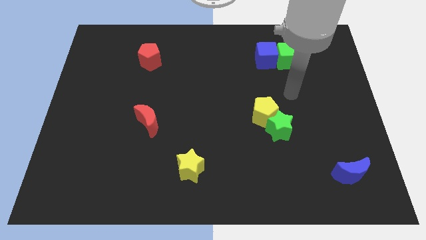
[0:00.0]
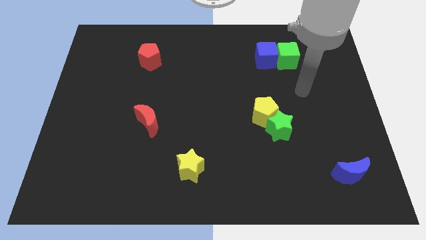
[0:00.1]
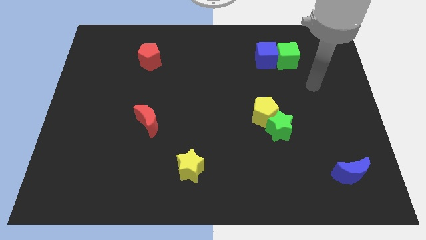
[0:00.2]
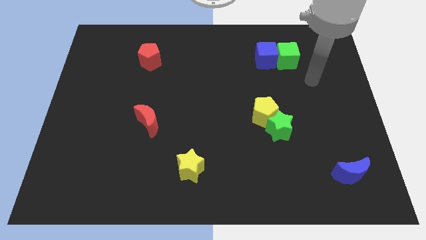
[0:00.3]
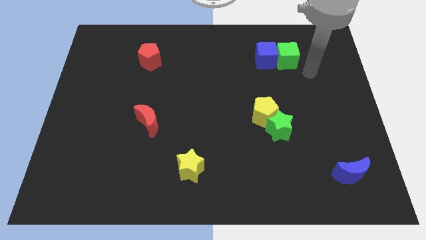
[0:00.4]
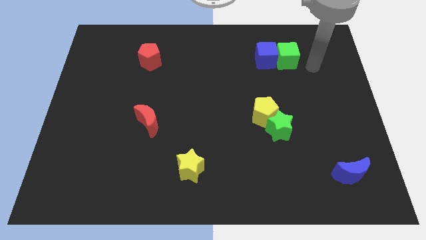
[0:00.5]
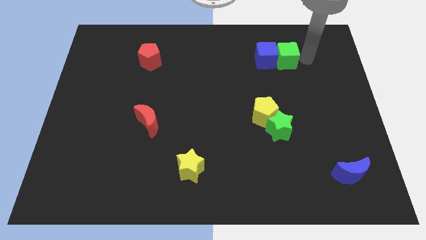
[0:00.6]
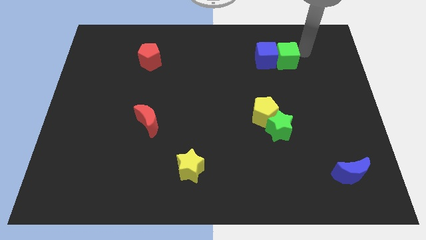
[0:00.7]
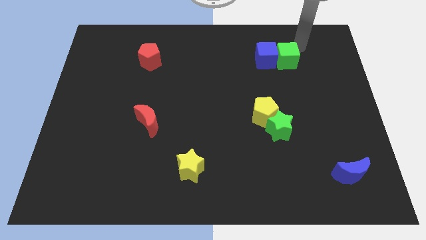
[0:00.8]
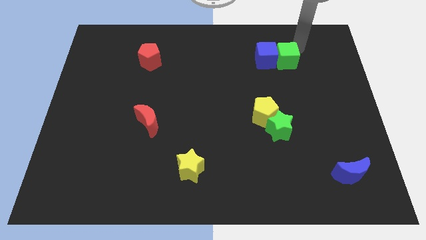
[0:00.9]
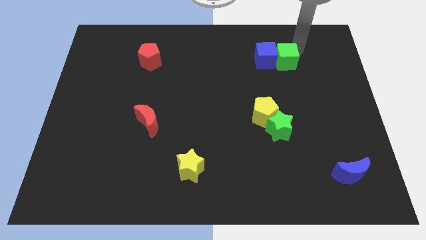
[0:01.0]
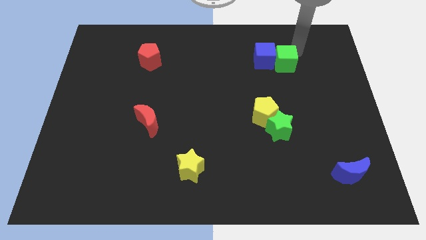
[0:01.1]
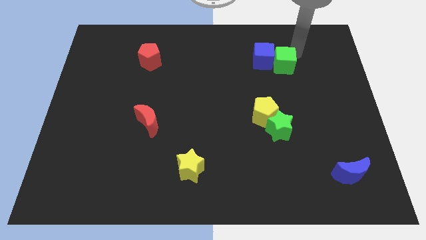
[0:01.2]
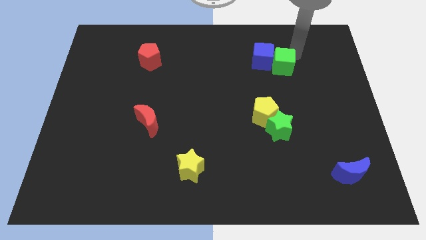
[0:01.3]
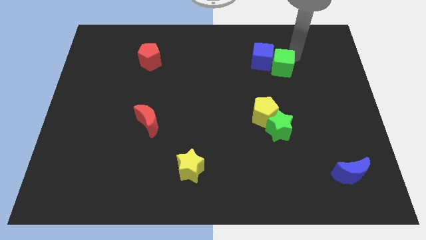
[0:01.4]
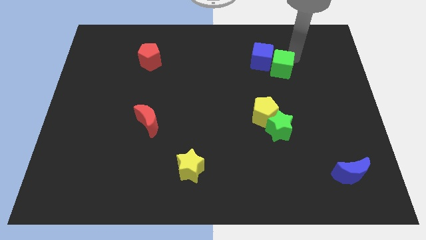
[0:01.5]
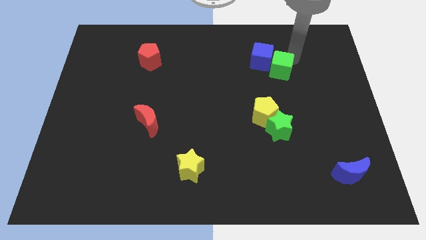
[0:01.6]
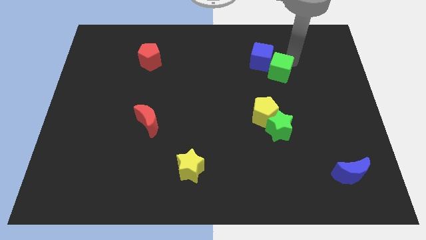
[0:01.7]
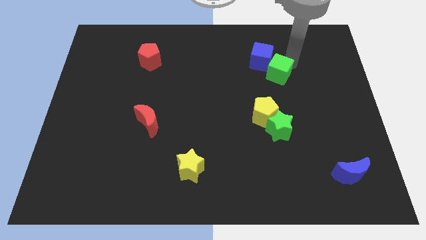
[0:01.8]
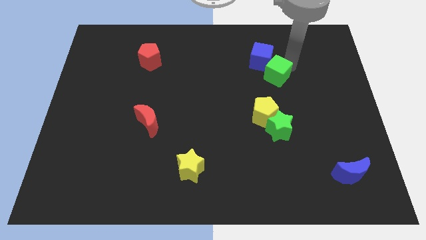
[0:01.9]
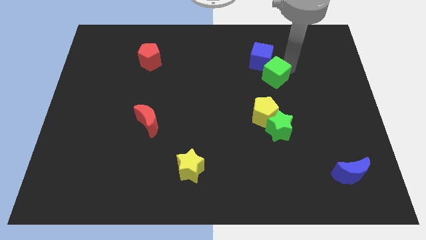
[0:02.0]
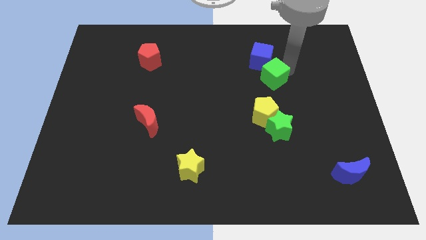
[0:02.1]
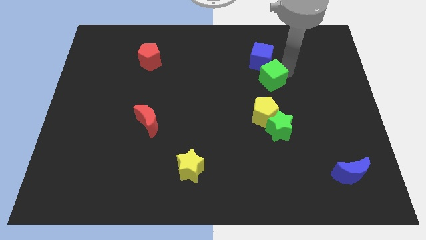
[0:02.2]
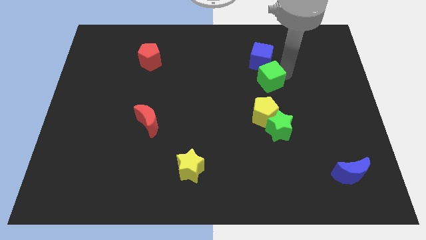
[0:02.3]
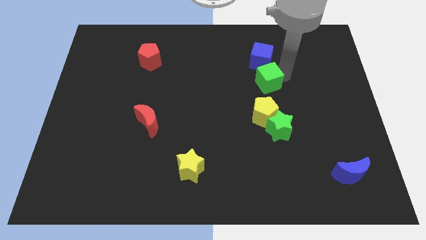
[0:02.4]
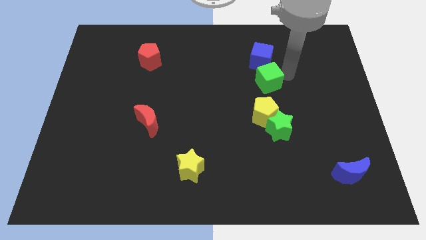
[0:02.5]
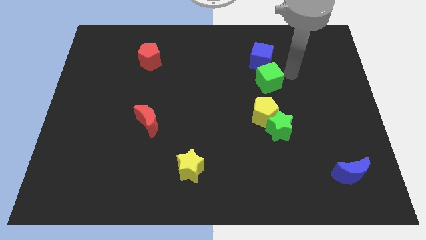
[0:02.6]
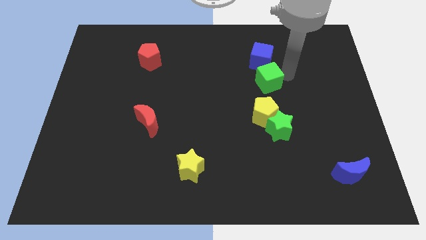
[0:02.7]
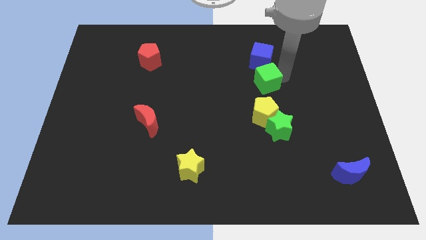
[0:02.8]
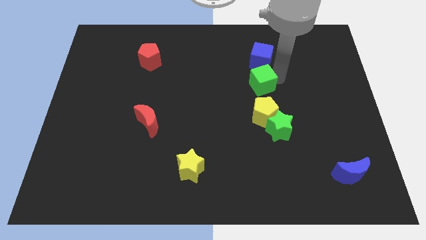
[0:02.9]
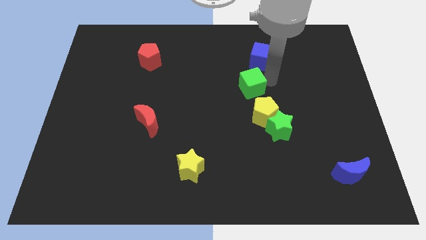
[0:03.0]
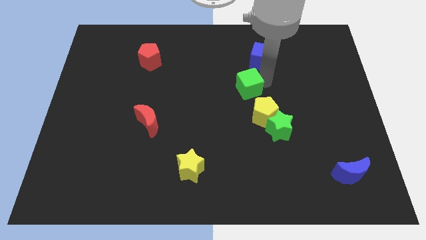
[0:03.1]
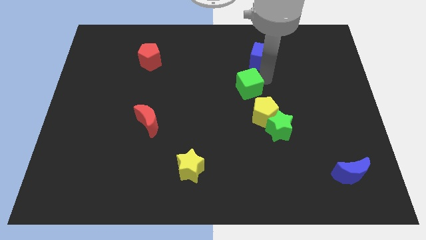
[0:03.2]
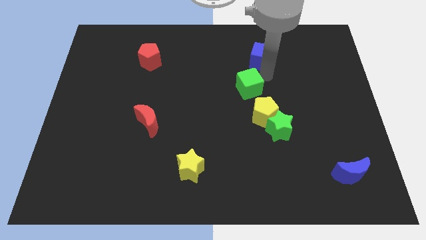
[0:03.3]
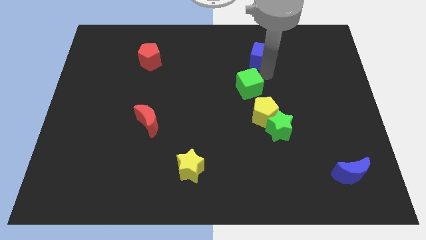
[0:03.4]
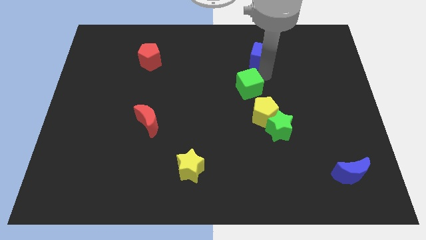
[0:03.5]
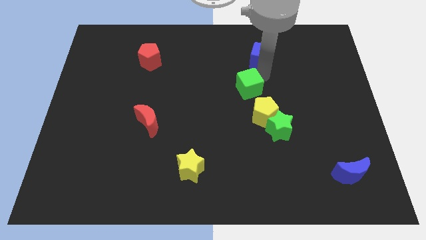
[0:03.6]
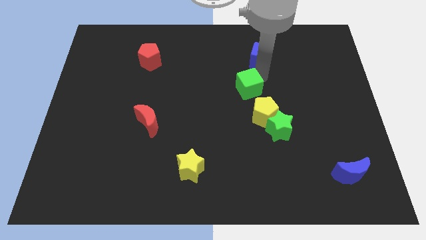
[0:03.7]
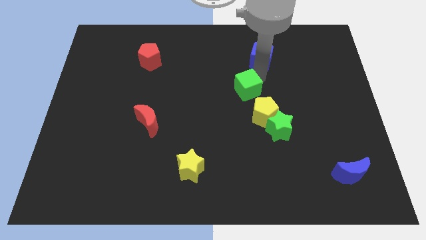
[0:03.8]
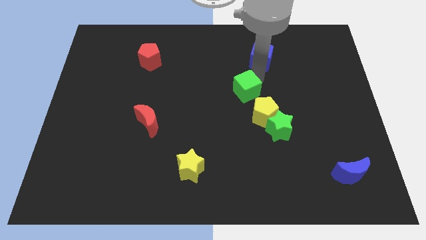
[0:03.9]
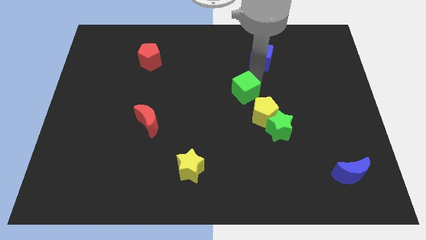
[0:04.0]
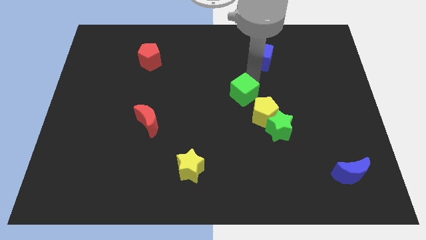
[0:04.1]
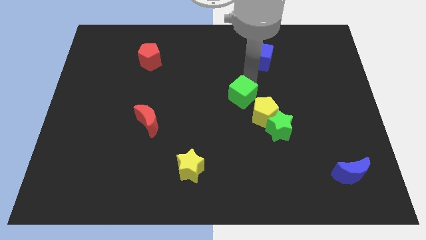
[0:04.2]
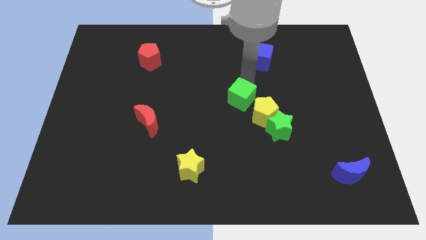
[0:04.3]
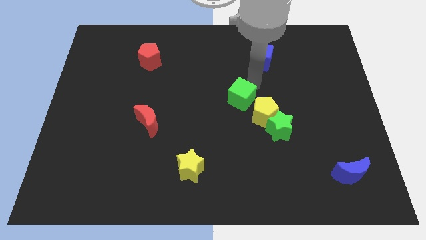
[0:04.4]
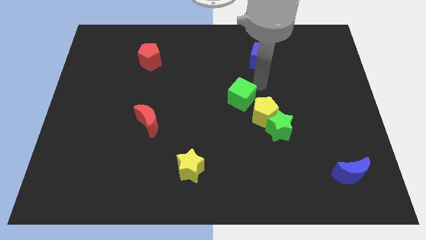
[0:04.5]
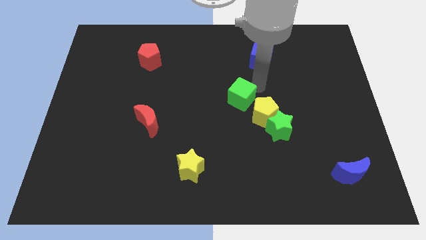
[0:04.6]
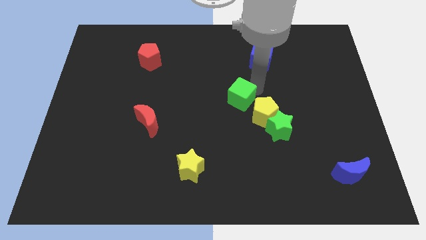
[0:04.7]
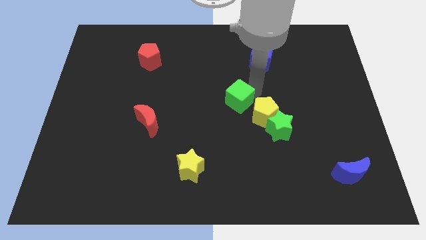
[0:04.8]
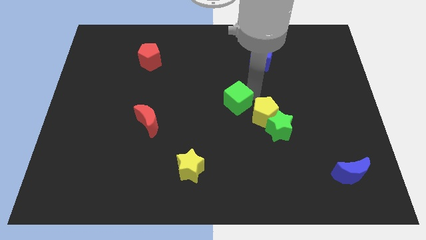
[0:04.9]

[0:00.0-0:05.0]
slide the green cube diagonally downwards and left

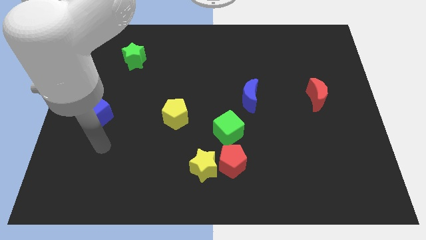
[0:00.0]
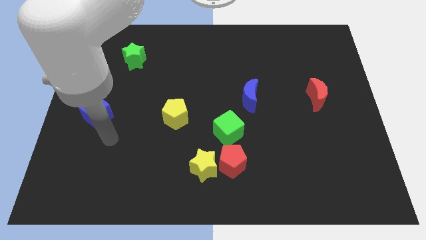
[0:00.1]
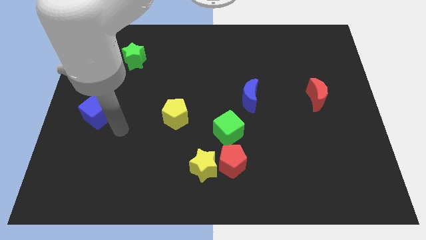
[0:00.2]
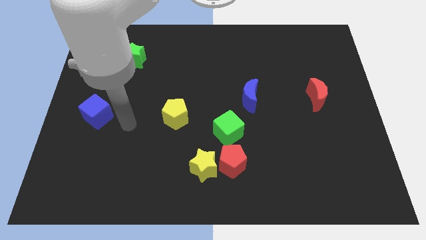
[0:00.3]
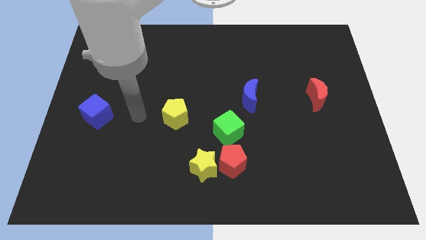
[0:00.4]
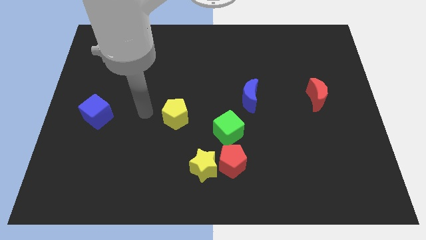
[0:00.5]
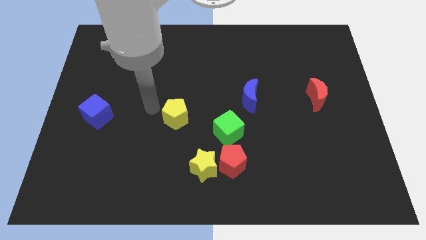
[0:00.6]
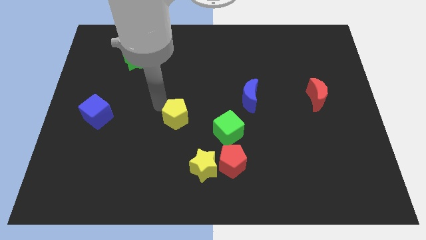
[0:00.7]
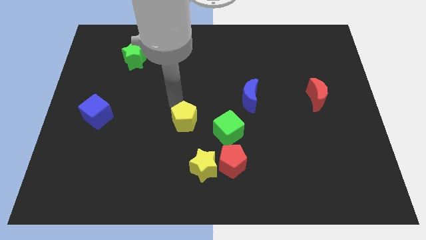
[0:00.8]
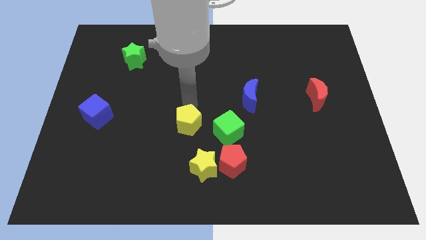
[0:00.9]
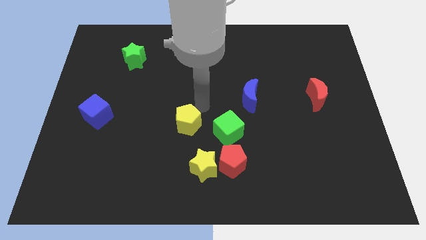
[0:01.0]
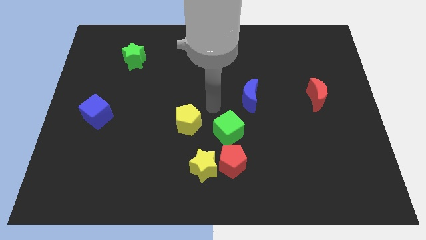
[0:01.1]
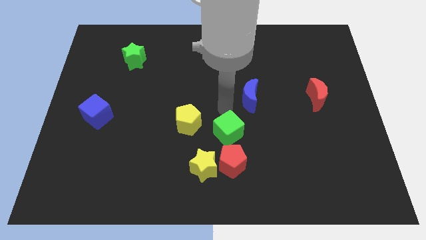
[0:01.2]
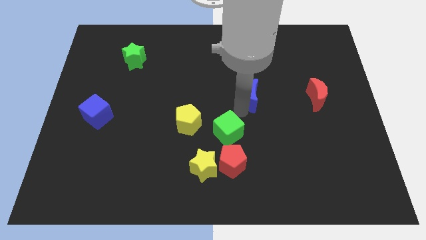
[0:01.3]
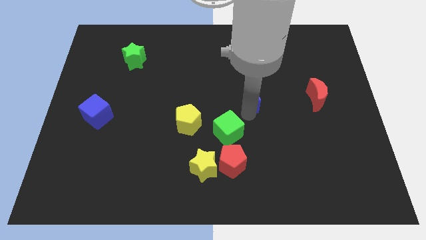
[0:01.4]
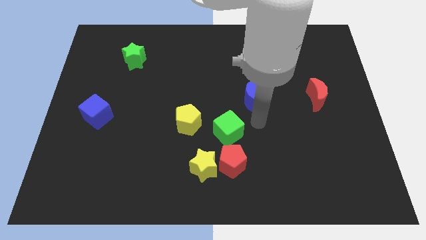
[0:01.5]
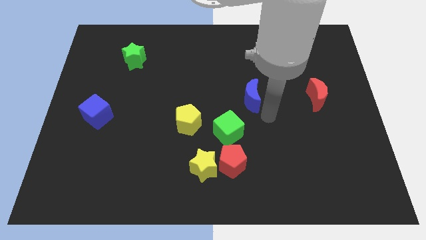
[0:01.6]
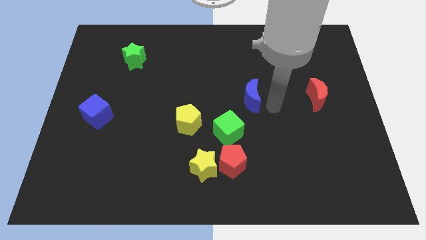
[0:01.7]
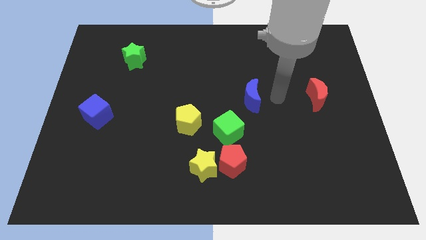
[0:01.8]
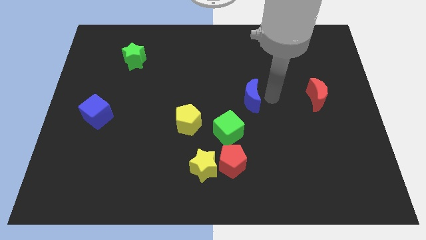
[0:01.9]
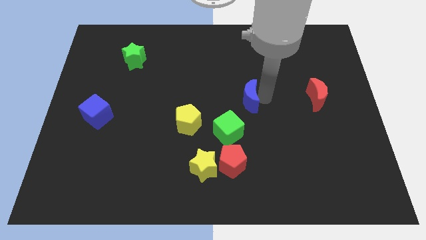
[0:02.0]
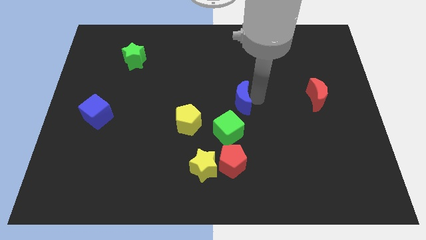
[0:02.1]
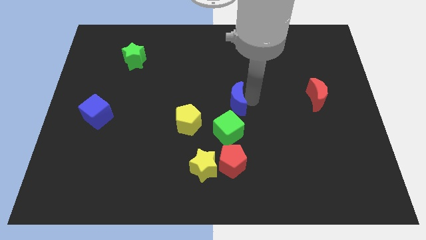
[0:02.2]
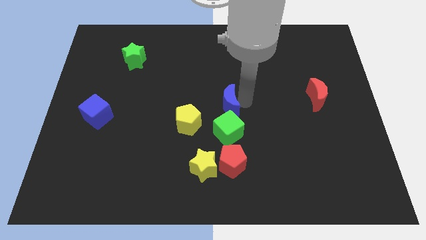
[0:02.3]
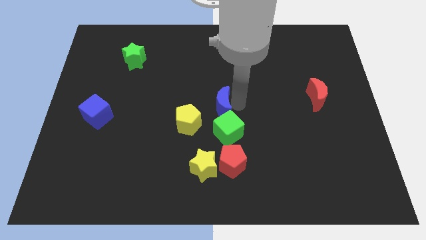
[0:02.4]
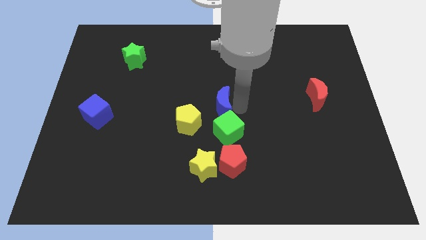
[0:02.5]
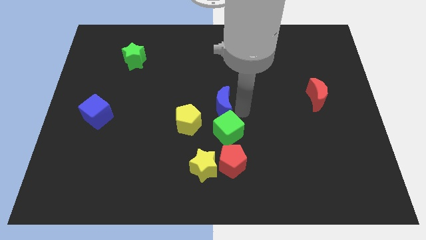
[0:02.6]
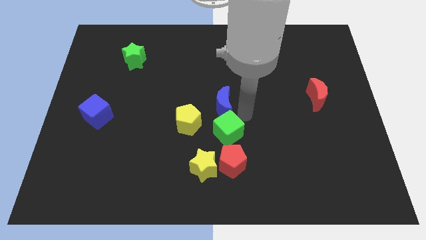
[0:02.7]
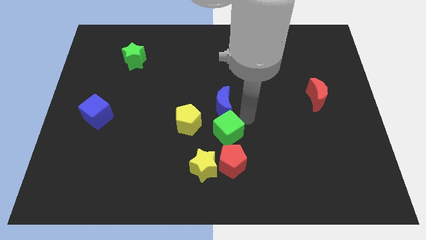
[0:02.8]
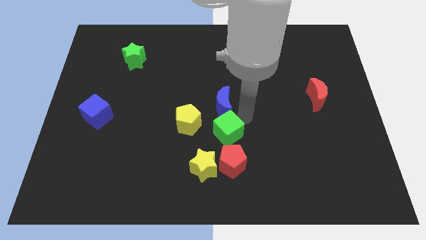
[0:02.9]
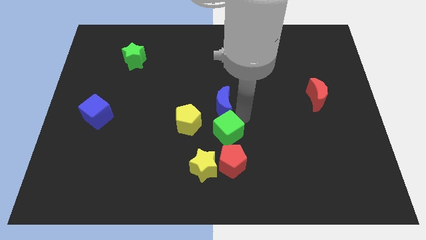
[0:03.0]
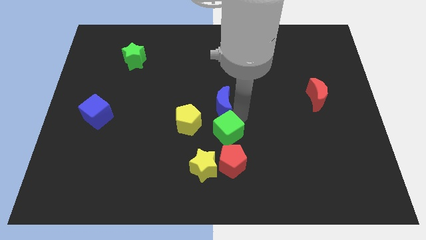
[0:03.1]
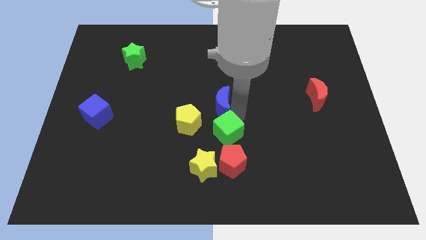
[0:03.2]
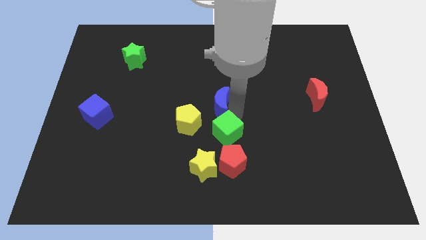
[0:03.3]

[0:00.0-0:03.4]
push the blue moon left a little
